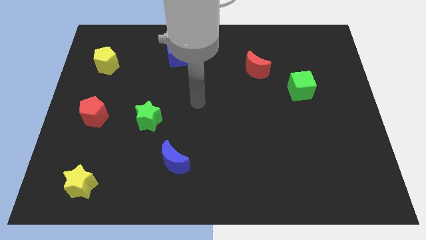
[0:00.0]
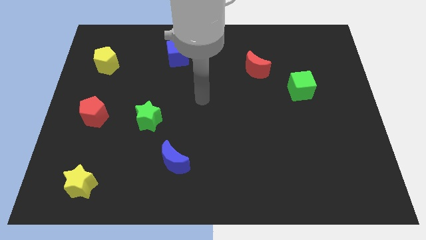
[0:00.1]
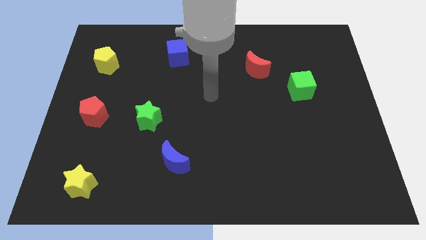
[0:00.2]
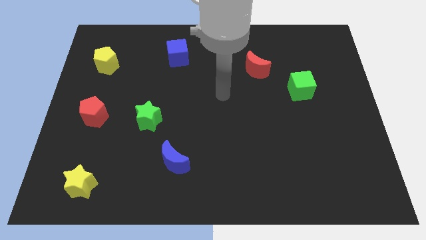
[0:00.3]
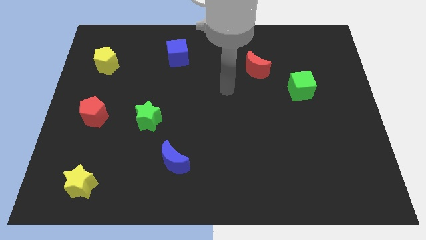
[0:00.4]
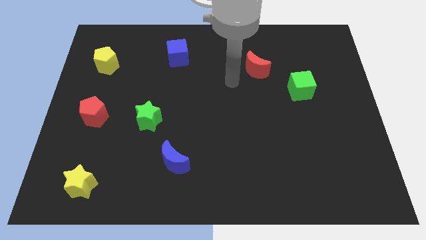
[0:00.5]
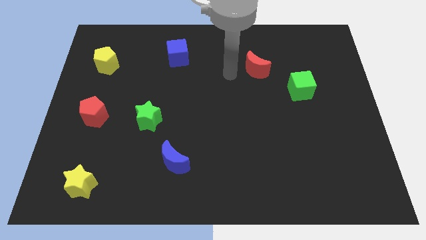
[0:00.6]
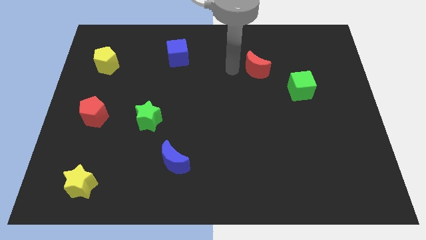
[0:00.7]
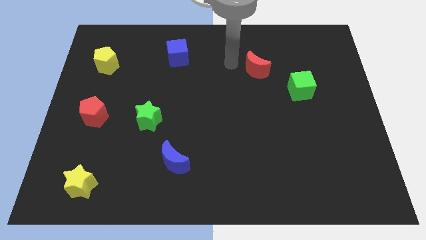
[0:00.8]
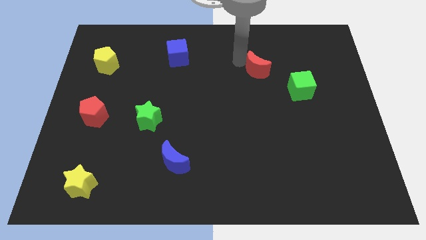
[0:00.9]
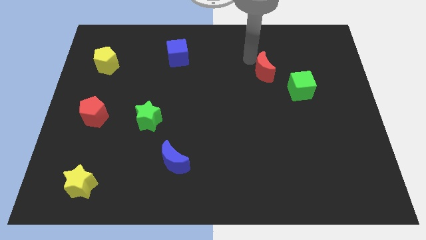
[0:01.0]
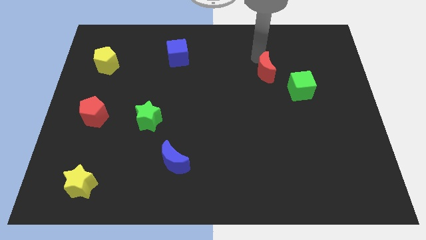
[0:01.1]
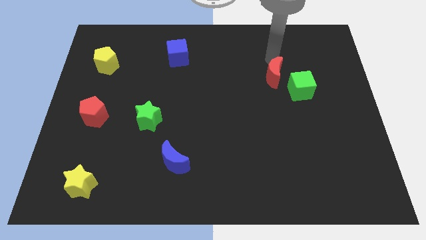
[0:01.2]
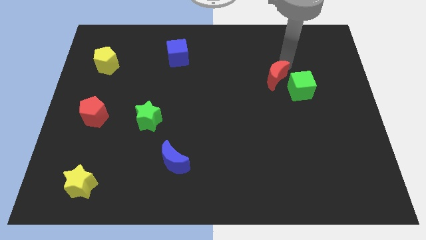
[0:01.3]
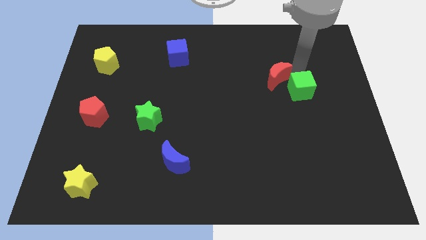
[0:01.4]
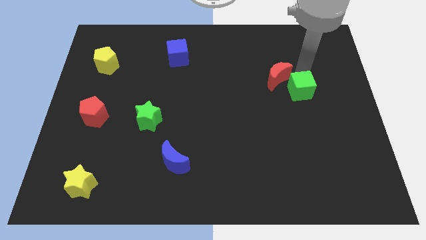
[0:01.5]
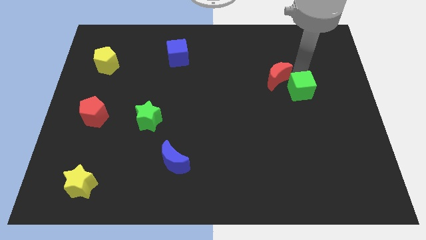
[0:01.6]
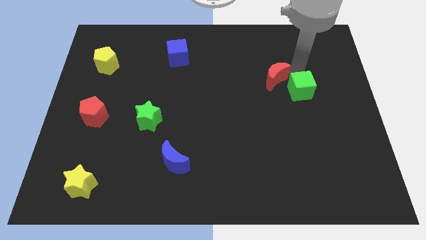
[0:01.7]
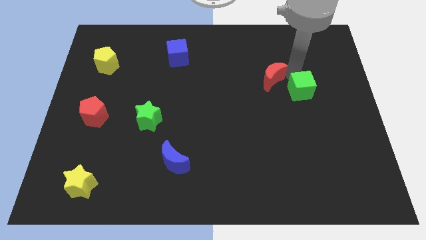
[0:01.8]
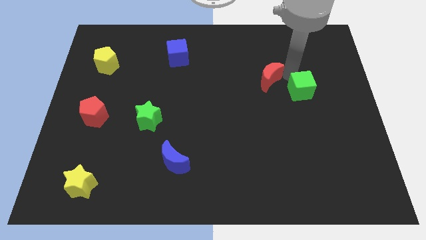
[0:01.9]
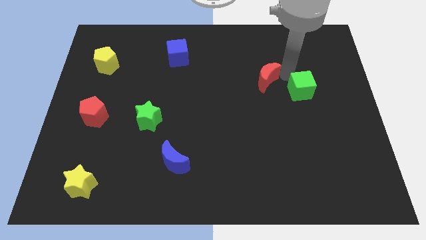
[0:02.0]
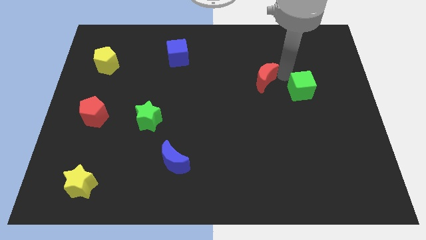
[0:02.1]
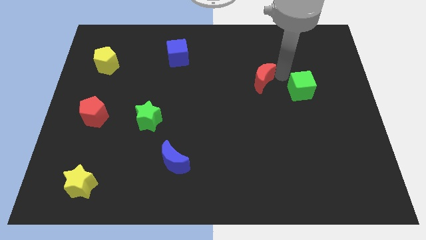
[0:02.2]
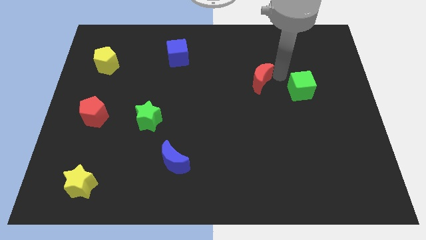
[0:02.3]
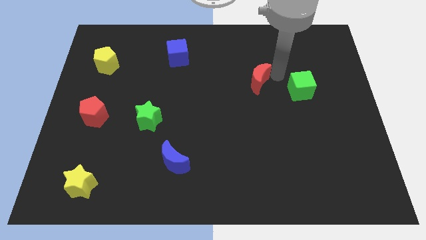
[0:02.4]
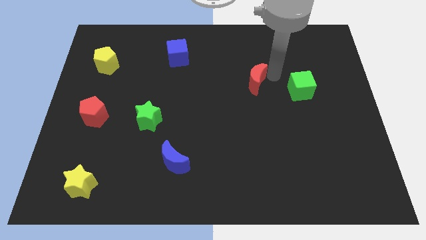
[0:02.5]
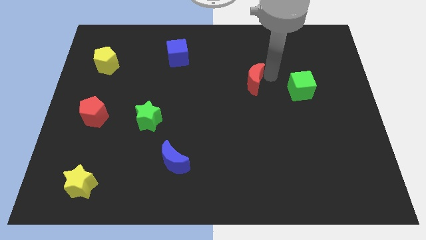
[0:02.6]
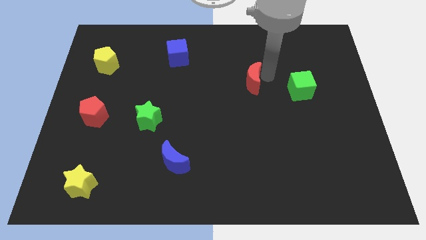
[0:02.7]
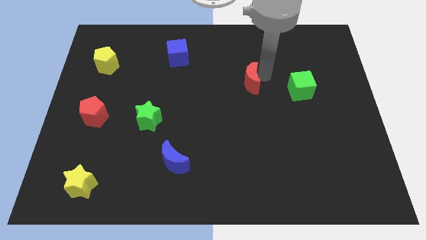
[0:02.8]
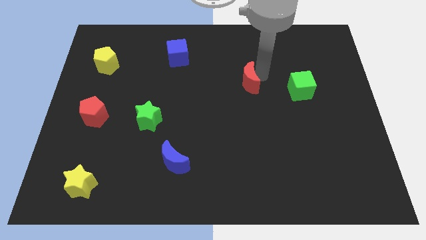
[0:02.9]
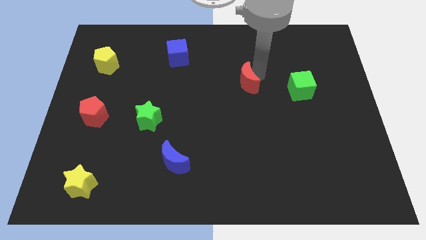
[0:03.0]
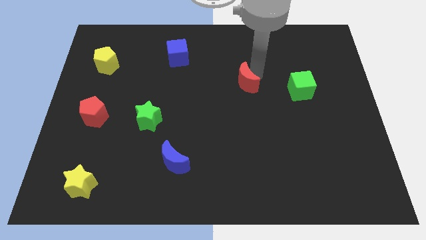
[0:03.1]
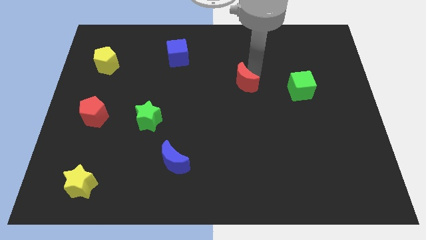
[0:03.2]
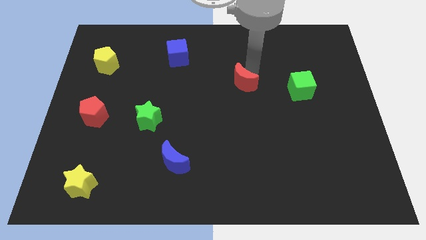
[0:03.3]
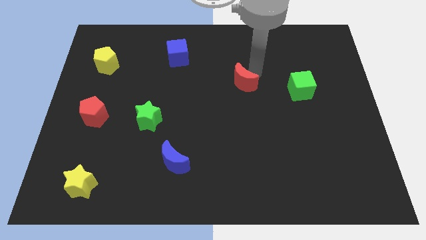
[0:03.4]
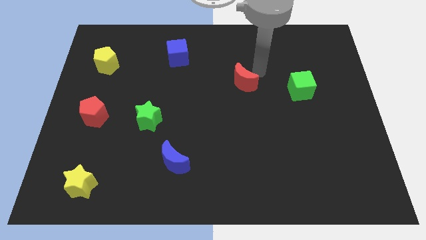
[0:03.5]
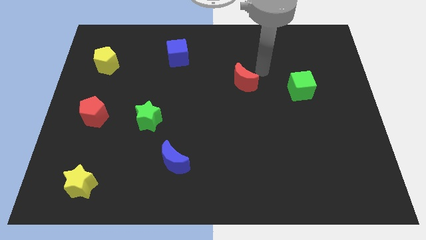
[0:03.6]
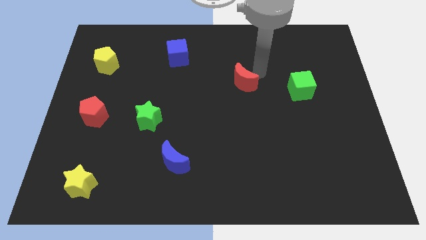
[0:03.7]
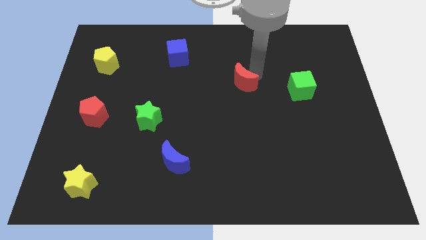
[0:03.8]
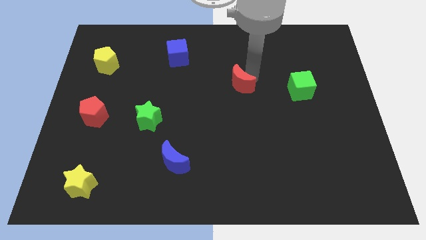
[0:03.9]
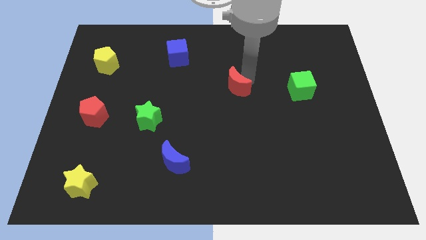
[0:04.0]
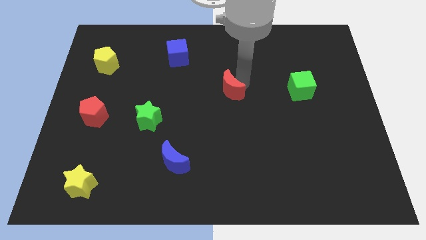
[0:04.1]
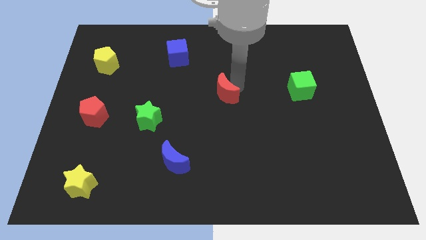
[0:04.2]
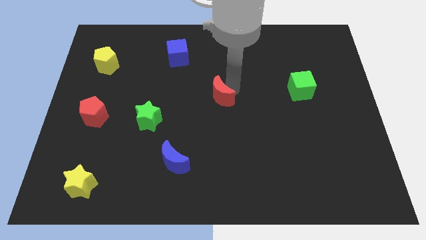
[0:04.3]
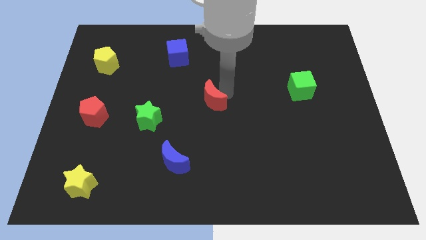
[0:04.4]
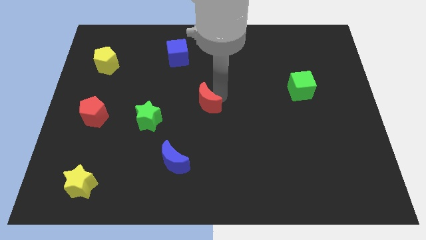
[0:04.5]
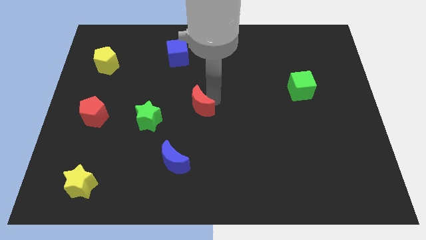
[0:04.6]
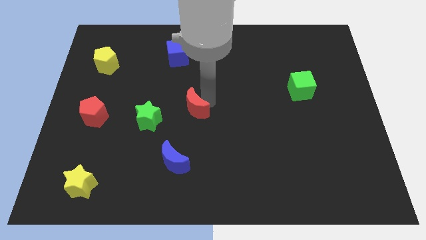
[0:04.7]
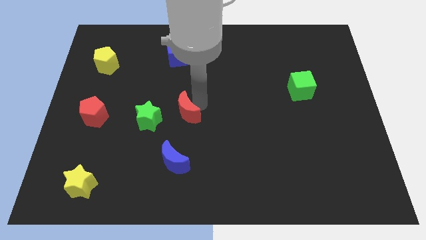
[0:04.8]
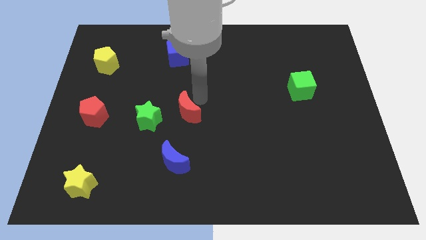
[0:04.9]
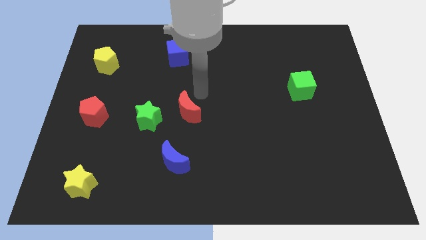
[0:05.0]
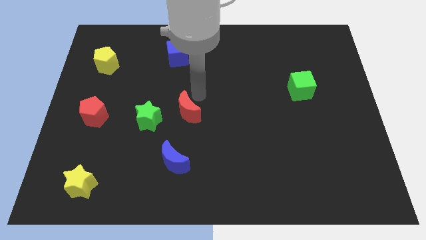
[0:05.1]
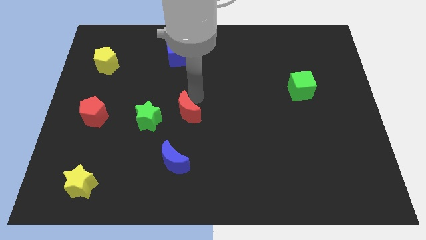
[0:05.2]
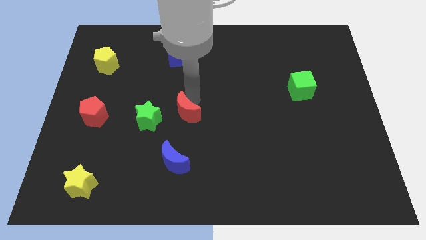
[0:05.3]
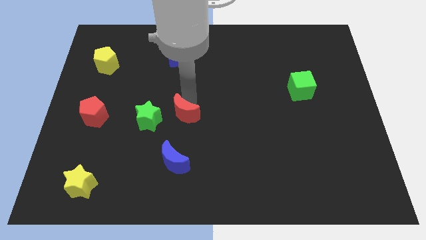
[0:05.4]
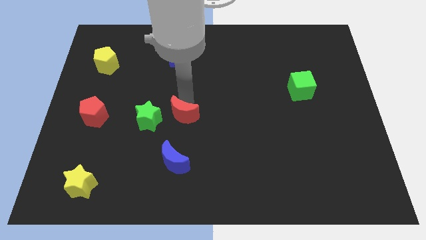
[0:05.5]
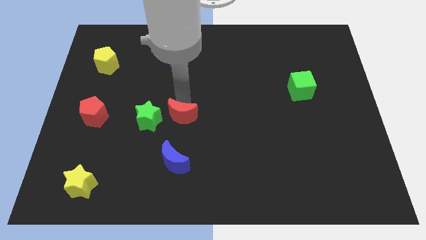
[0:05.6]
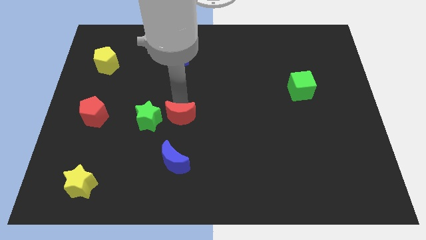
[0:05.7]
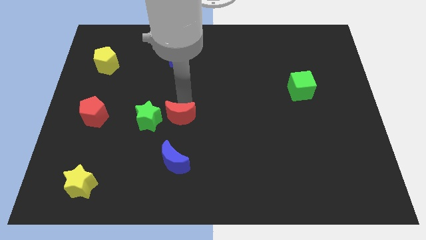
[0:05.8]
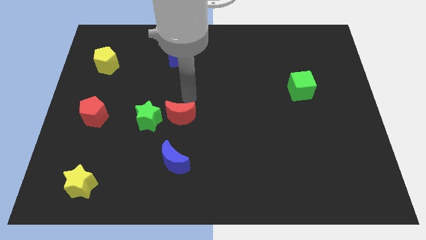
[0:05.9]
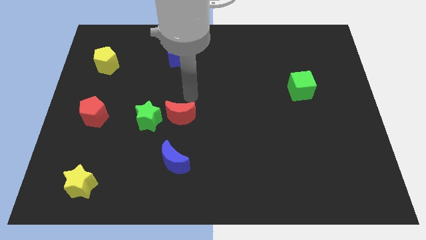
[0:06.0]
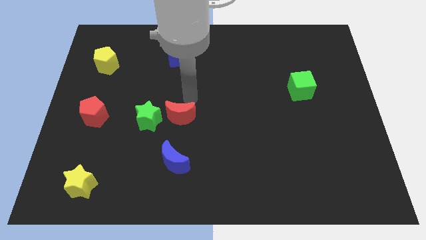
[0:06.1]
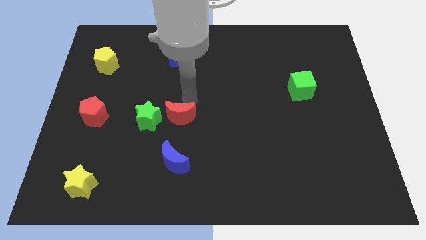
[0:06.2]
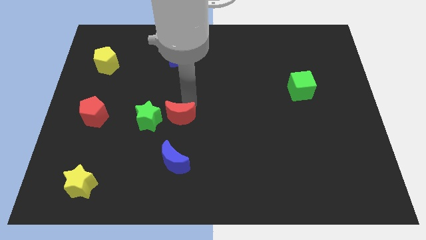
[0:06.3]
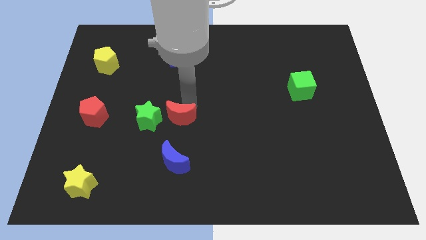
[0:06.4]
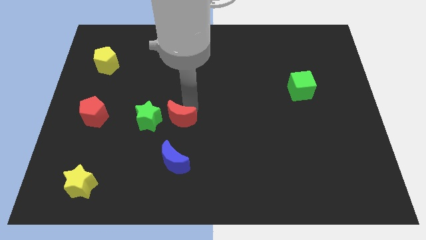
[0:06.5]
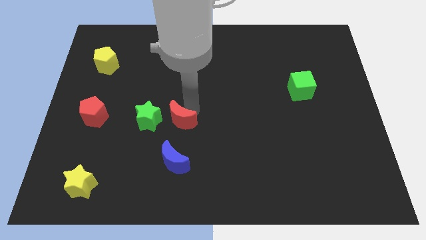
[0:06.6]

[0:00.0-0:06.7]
move the red moon to the bottom right of the green star

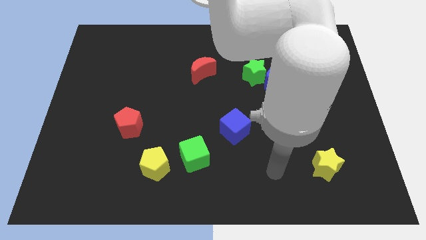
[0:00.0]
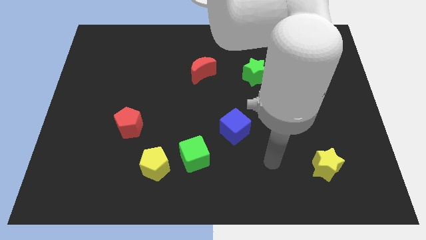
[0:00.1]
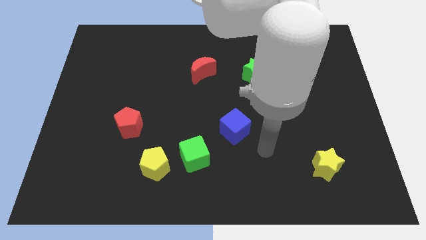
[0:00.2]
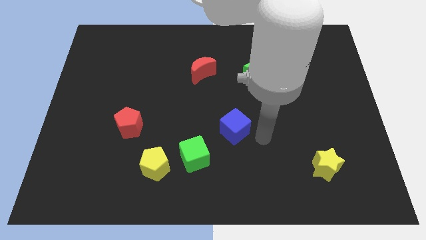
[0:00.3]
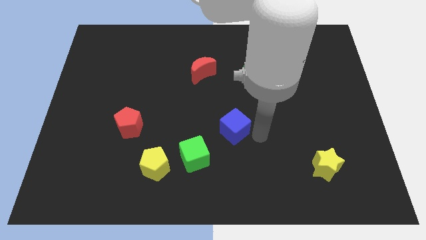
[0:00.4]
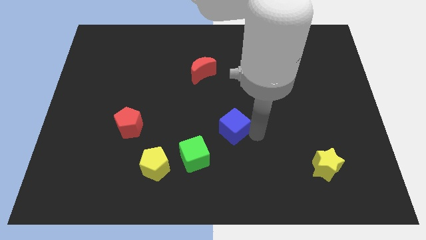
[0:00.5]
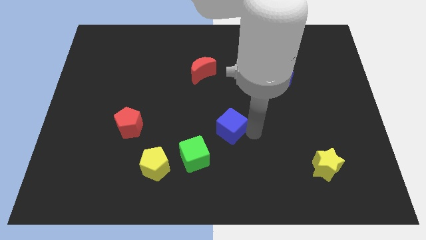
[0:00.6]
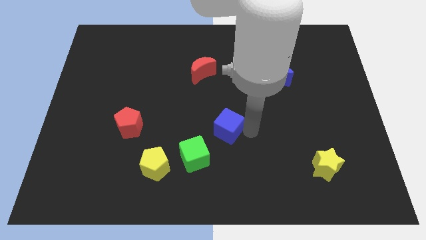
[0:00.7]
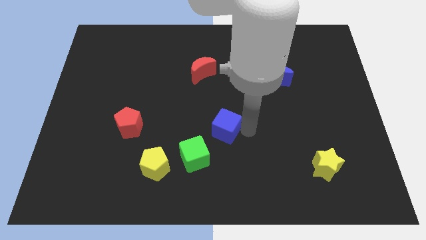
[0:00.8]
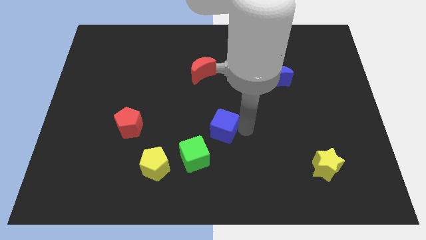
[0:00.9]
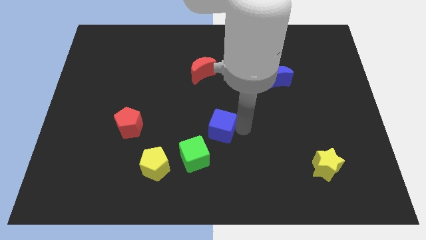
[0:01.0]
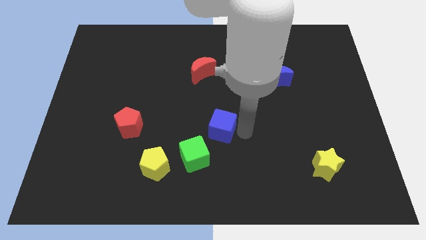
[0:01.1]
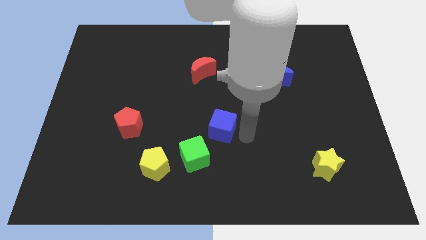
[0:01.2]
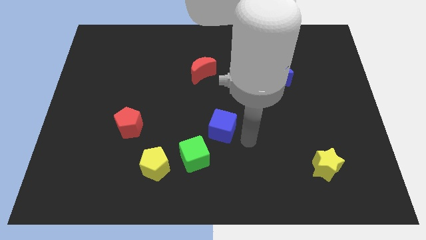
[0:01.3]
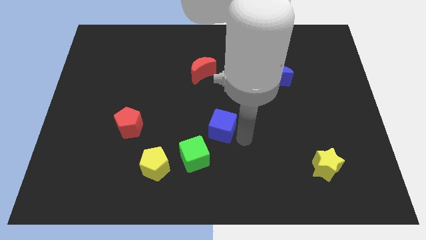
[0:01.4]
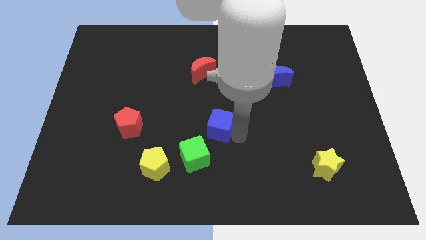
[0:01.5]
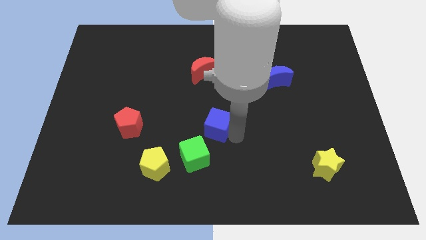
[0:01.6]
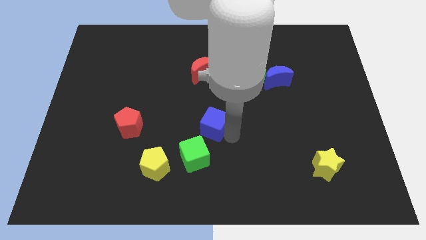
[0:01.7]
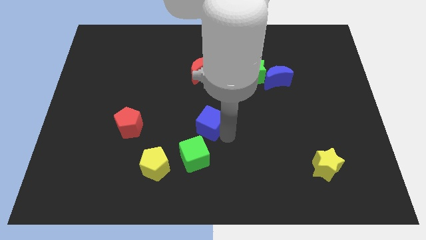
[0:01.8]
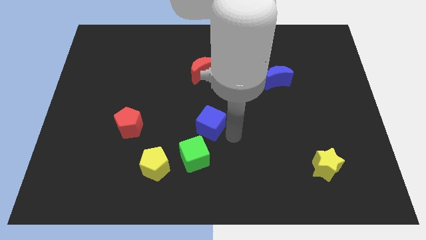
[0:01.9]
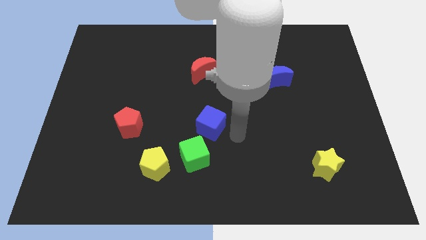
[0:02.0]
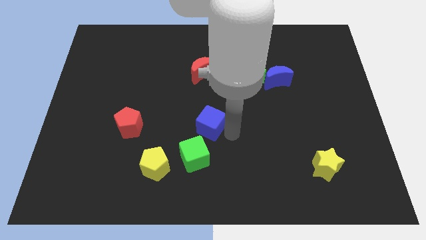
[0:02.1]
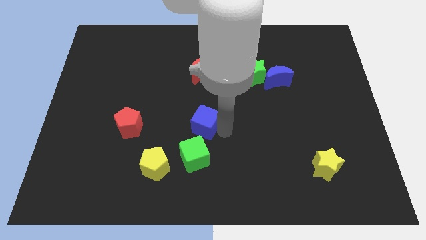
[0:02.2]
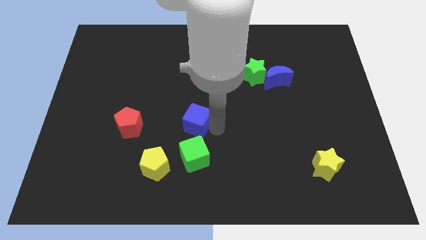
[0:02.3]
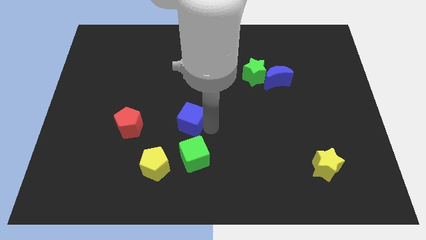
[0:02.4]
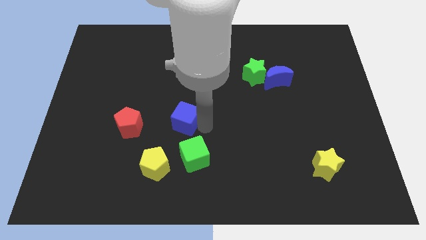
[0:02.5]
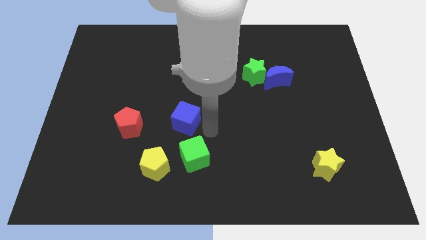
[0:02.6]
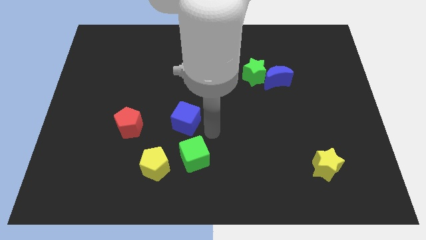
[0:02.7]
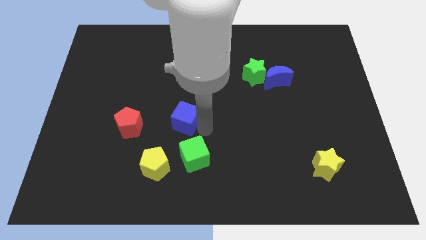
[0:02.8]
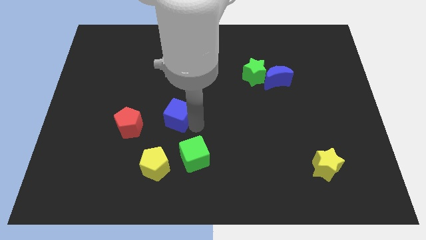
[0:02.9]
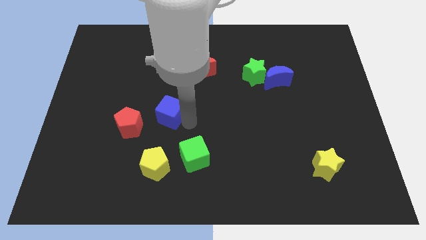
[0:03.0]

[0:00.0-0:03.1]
put the blue cube diagonally up and to the right of the red pentagon
